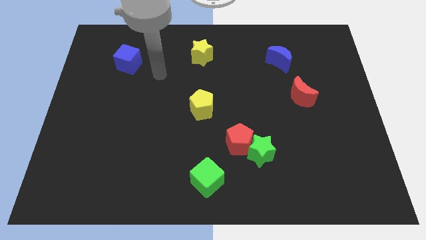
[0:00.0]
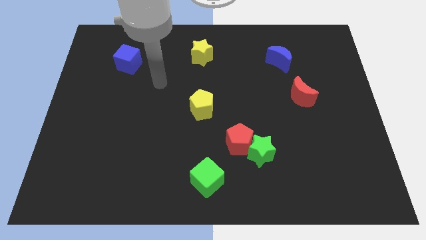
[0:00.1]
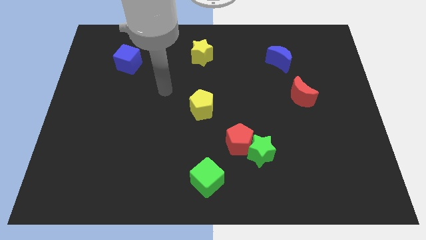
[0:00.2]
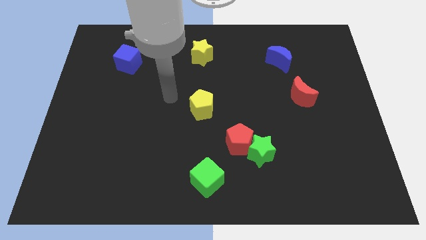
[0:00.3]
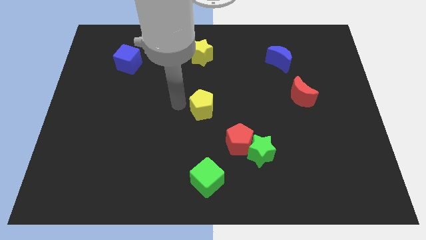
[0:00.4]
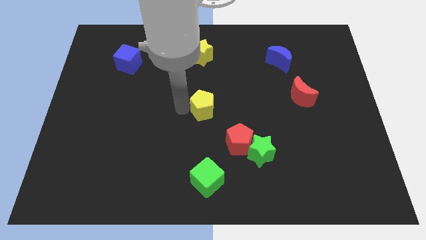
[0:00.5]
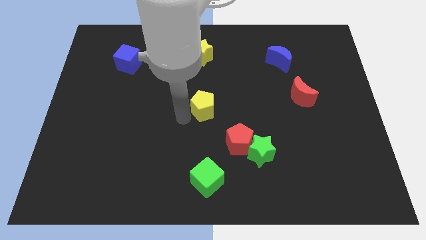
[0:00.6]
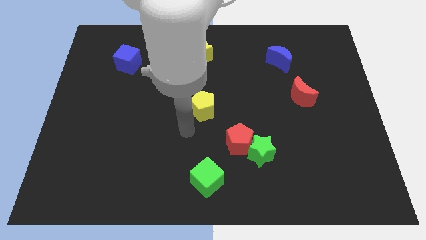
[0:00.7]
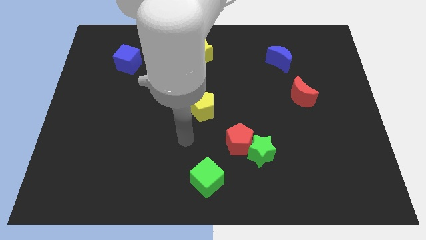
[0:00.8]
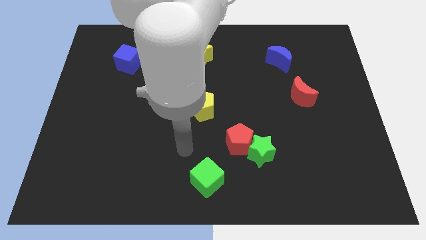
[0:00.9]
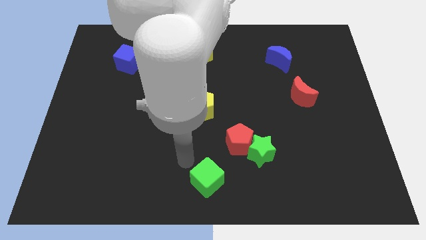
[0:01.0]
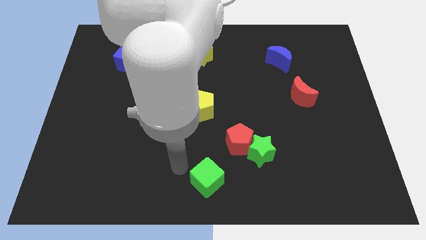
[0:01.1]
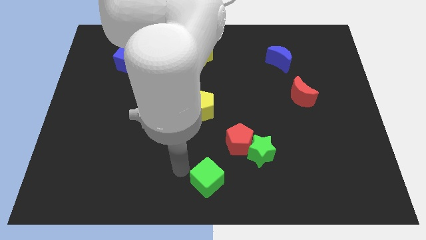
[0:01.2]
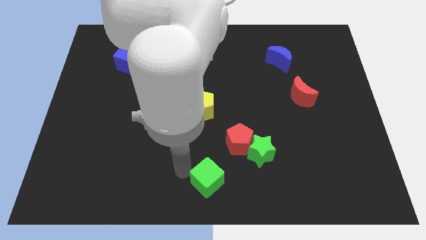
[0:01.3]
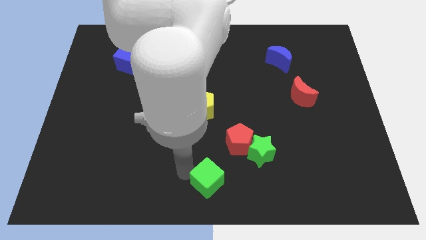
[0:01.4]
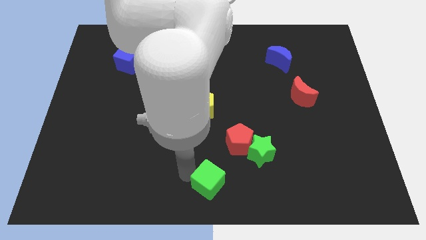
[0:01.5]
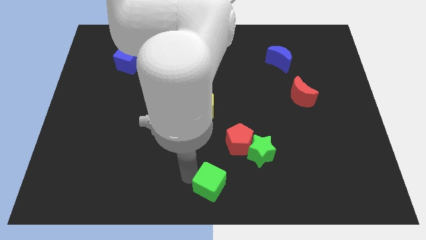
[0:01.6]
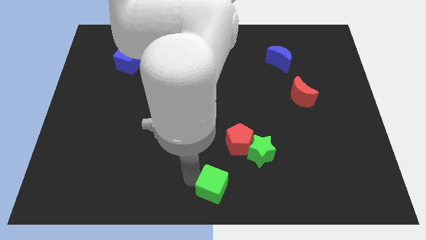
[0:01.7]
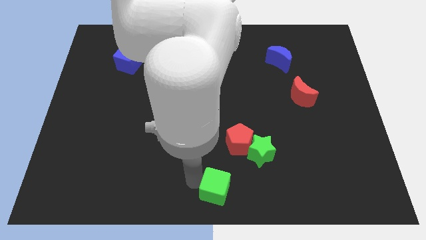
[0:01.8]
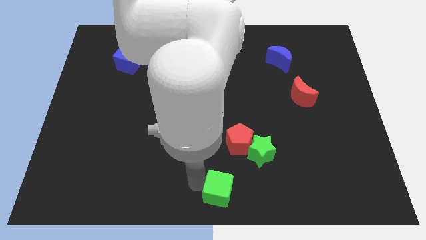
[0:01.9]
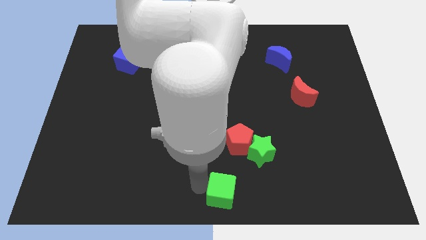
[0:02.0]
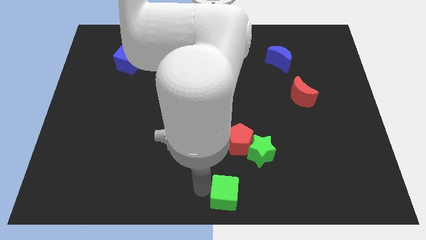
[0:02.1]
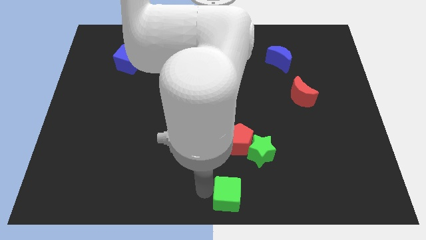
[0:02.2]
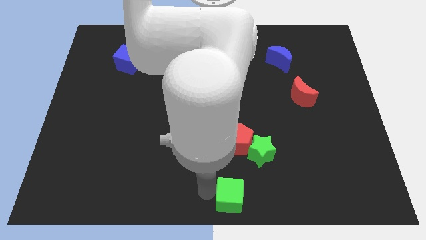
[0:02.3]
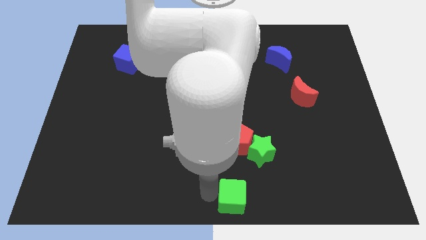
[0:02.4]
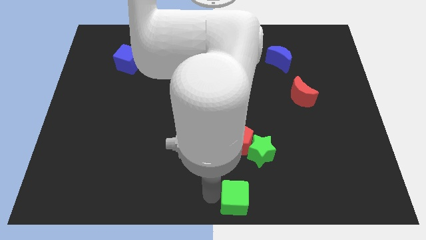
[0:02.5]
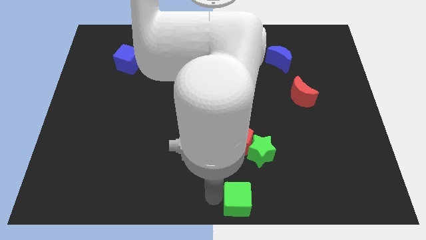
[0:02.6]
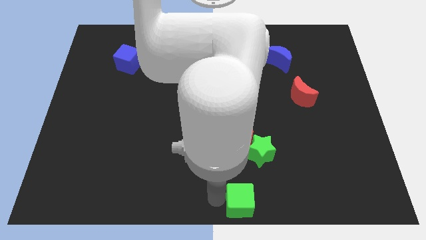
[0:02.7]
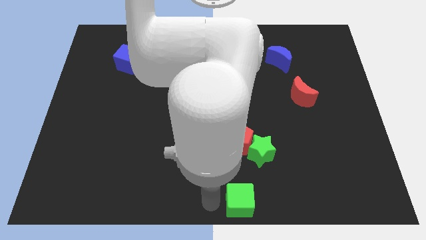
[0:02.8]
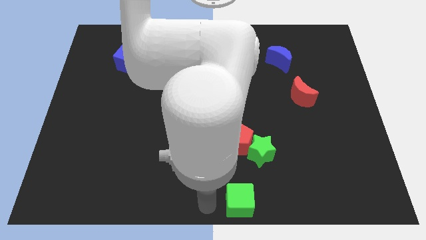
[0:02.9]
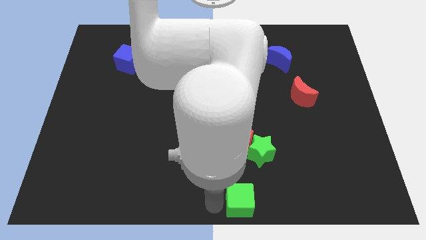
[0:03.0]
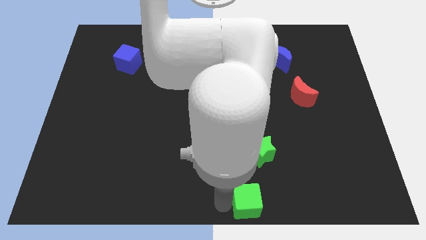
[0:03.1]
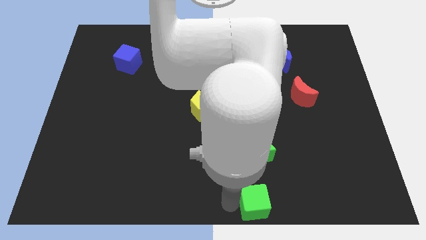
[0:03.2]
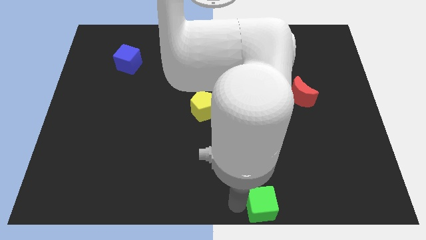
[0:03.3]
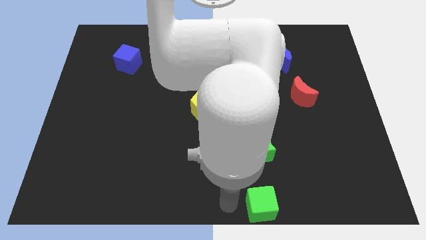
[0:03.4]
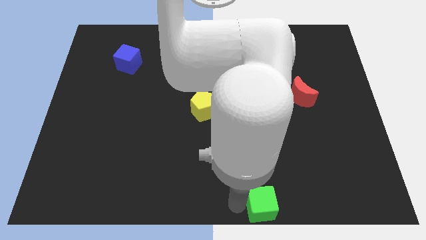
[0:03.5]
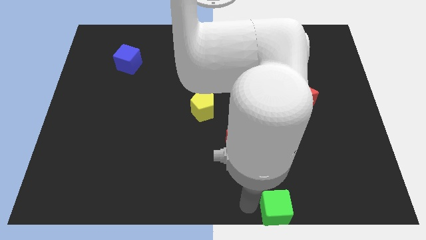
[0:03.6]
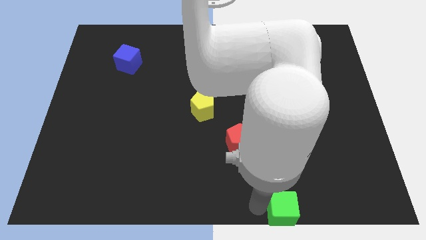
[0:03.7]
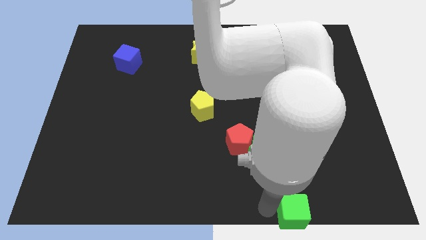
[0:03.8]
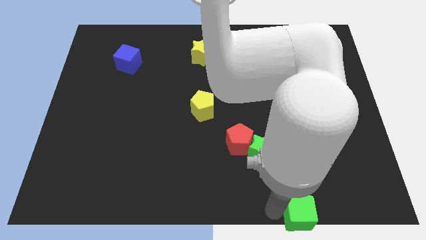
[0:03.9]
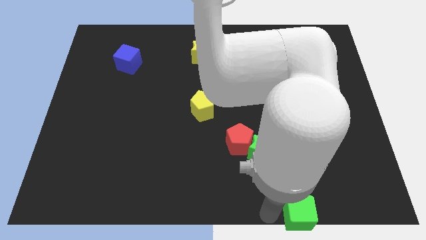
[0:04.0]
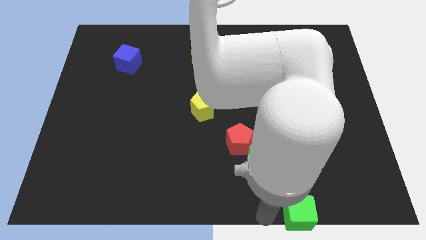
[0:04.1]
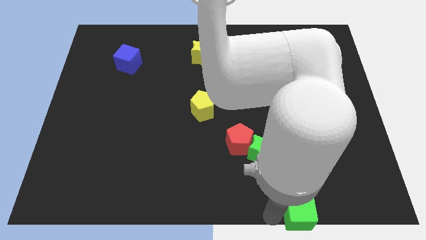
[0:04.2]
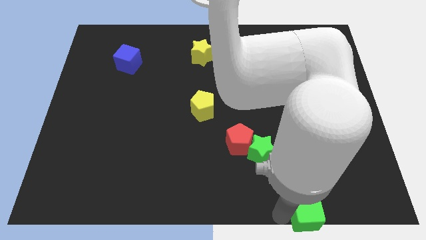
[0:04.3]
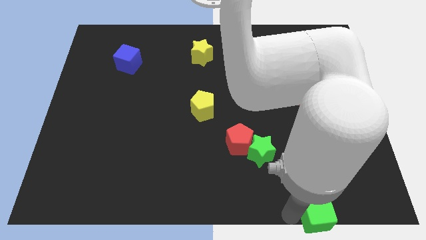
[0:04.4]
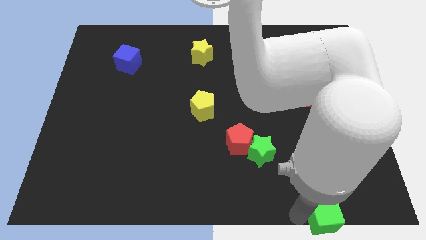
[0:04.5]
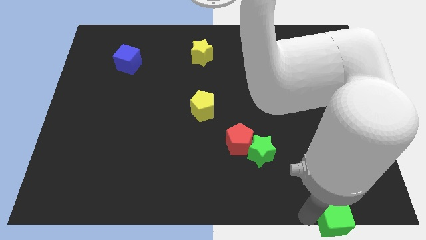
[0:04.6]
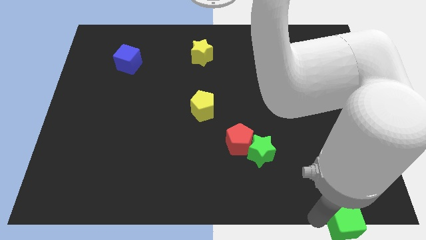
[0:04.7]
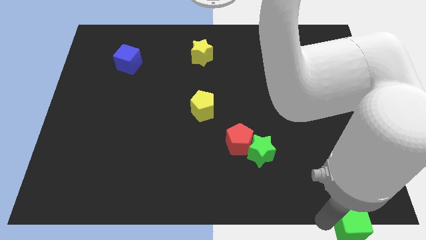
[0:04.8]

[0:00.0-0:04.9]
move the green cube to the bottom right

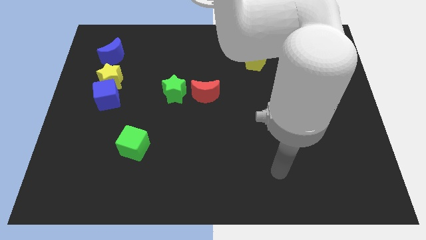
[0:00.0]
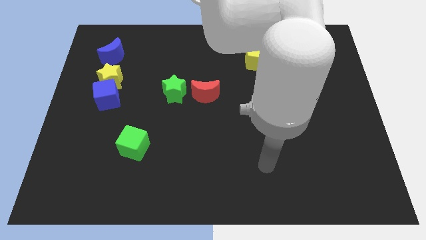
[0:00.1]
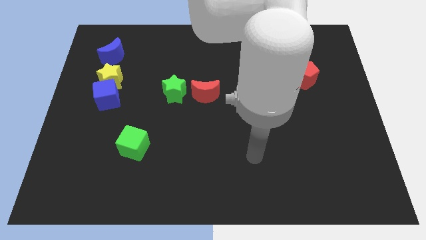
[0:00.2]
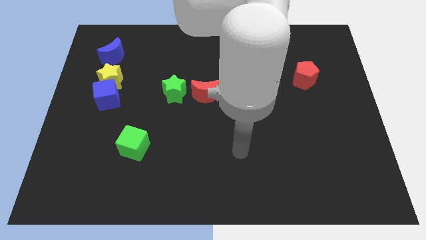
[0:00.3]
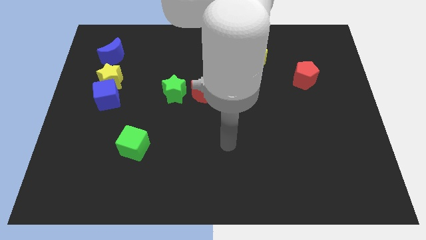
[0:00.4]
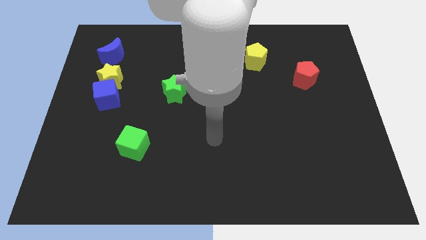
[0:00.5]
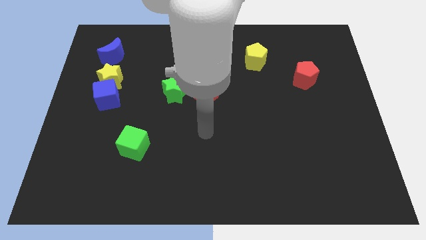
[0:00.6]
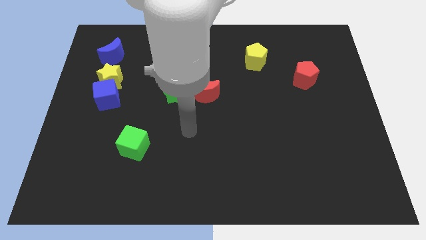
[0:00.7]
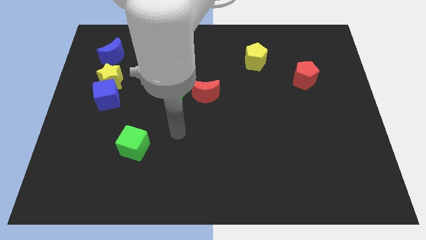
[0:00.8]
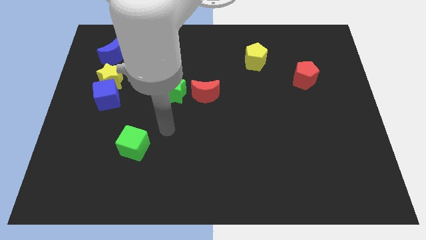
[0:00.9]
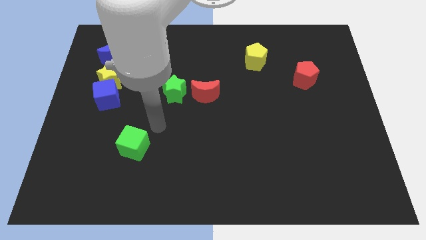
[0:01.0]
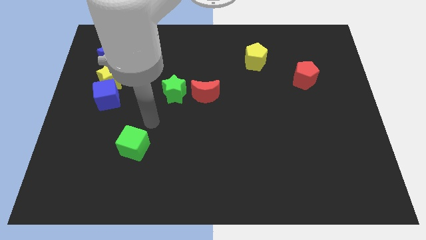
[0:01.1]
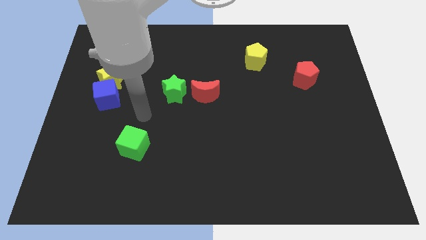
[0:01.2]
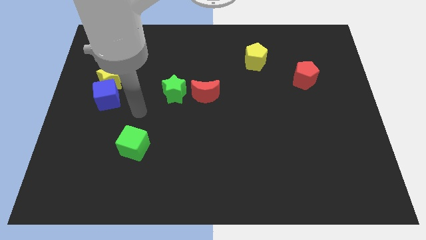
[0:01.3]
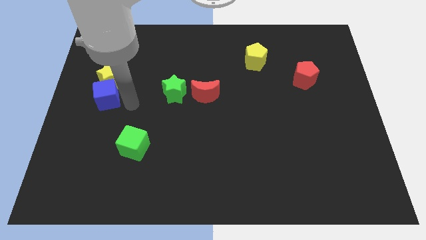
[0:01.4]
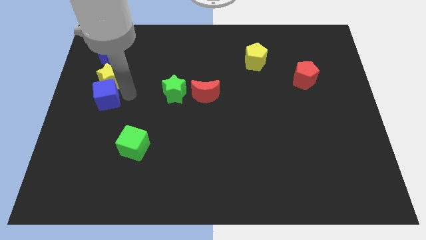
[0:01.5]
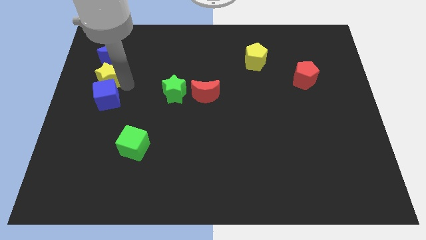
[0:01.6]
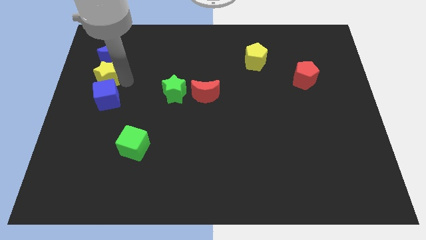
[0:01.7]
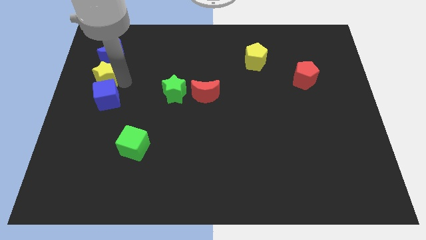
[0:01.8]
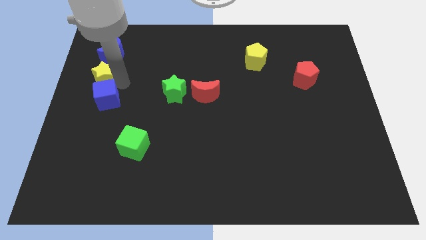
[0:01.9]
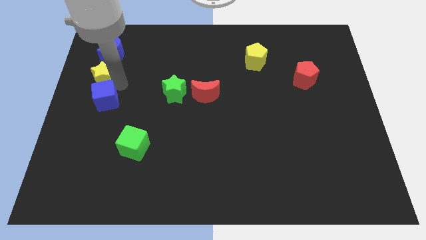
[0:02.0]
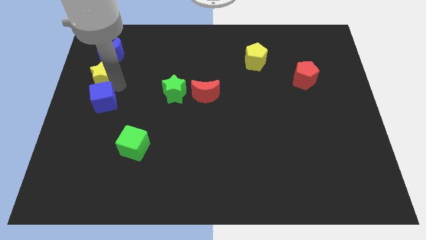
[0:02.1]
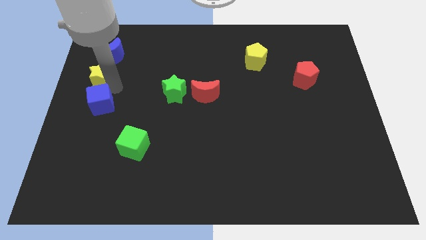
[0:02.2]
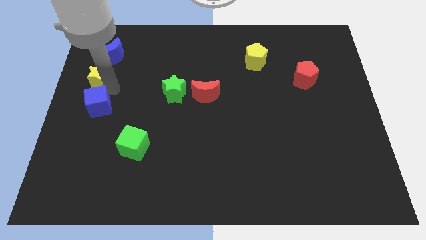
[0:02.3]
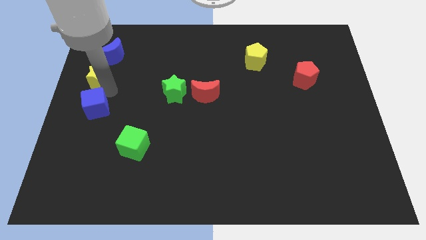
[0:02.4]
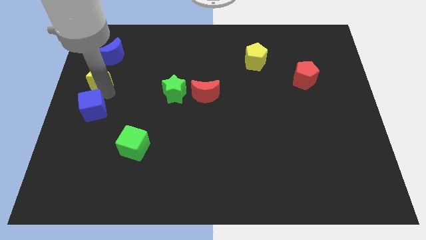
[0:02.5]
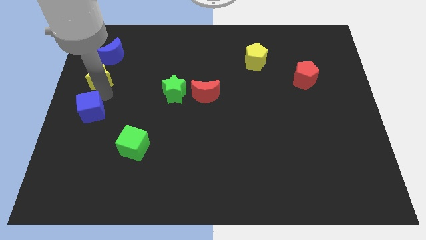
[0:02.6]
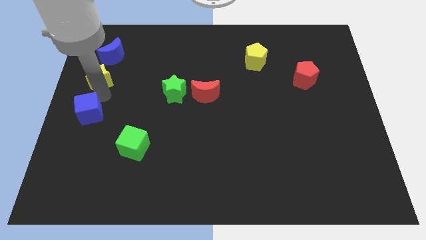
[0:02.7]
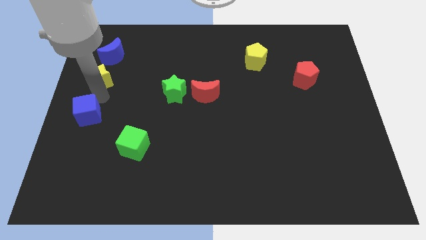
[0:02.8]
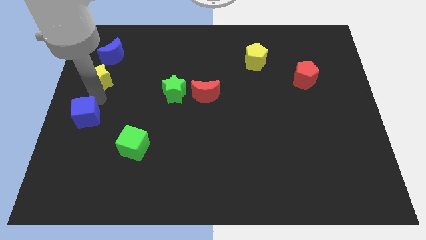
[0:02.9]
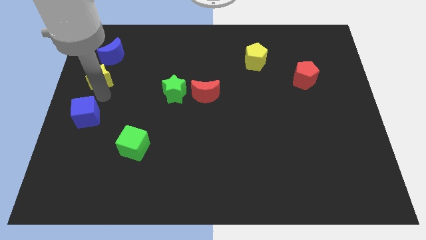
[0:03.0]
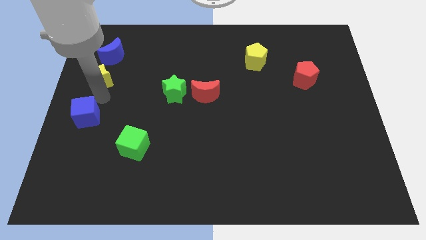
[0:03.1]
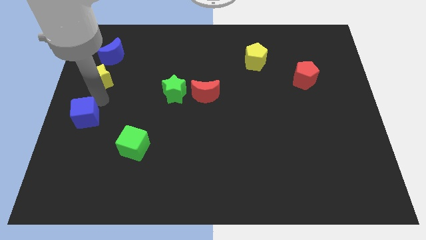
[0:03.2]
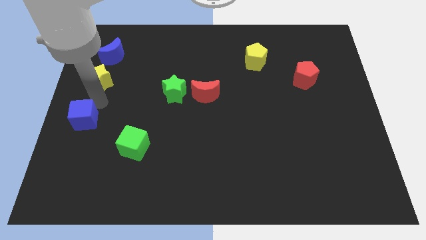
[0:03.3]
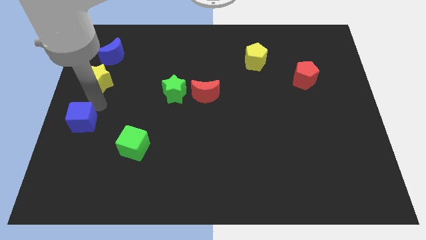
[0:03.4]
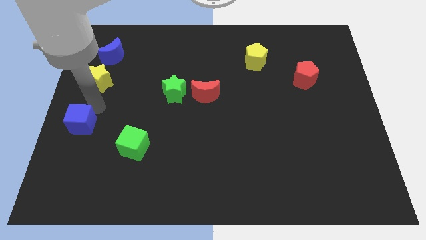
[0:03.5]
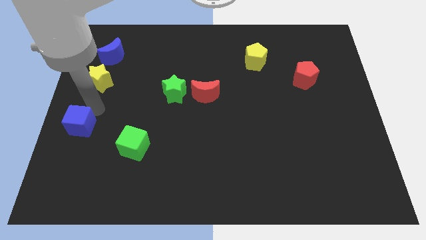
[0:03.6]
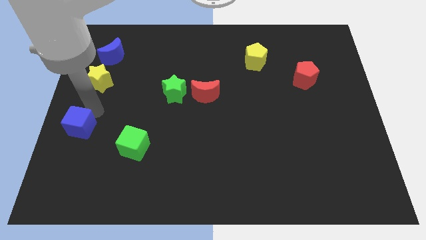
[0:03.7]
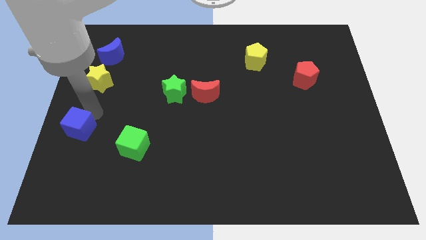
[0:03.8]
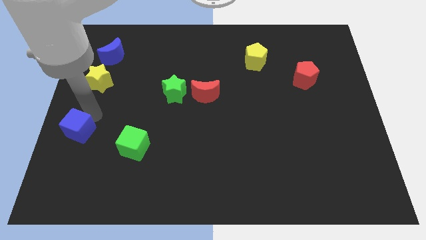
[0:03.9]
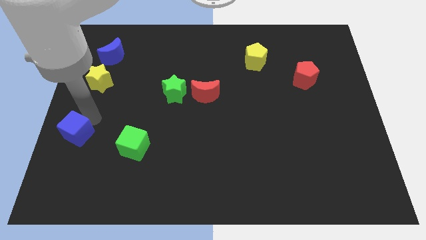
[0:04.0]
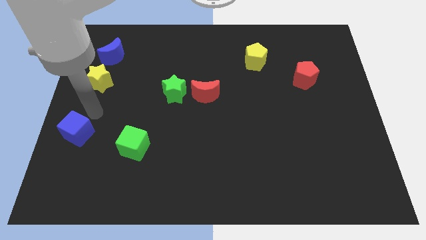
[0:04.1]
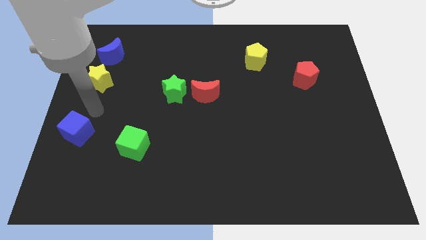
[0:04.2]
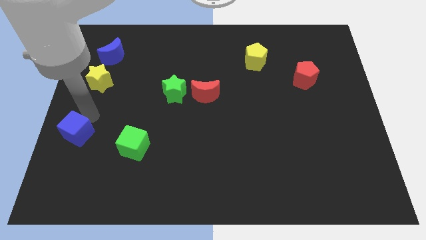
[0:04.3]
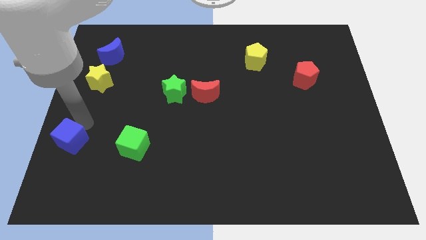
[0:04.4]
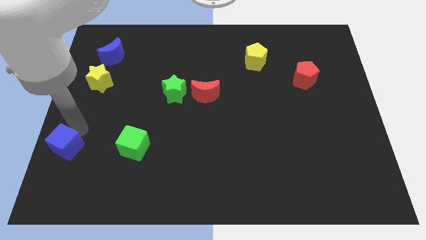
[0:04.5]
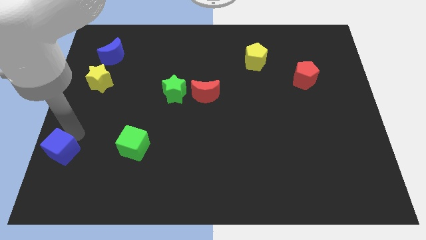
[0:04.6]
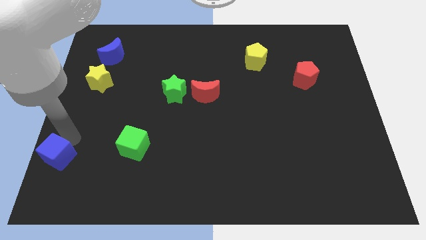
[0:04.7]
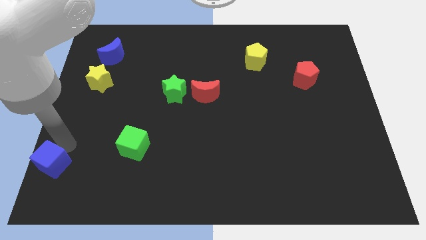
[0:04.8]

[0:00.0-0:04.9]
move the blue cube to the lower left corner
